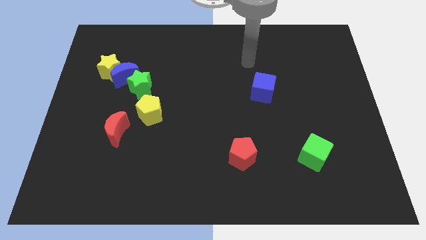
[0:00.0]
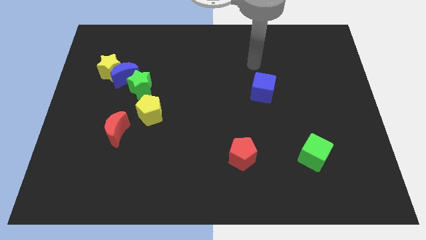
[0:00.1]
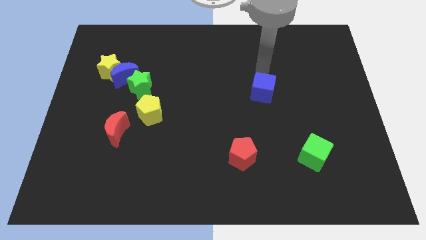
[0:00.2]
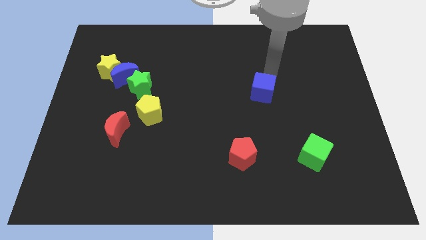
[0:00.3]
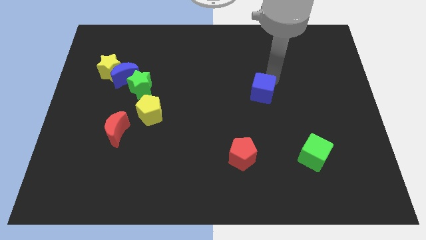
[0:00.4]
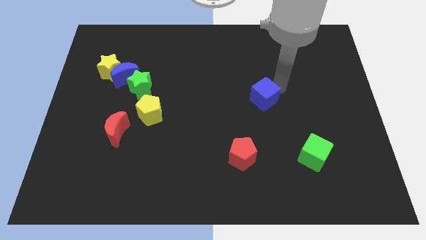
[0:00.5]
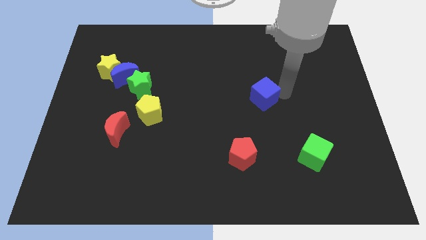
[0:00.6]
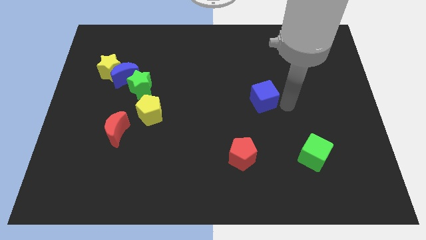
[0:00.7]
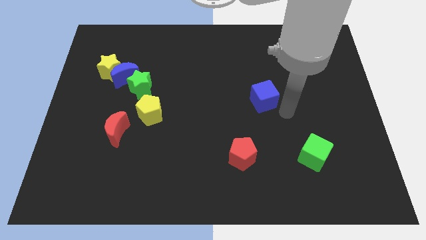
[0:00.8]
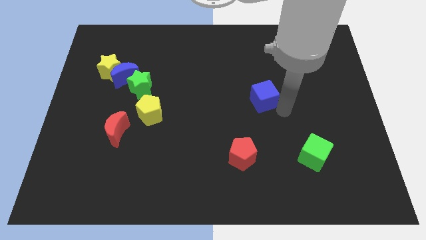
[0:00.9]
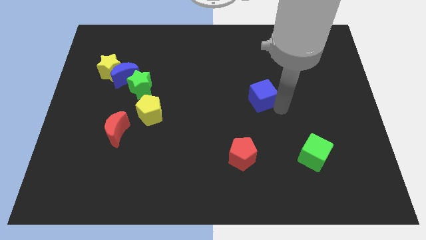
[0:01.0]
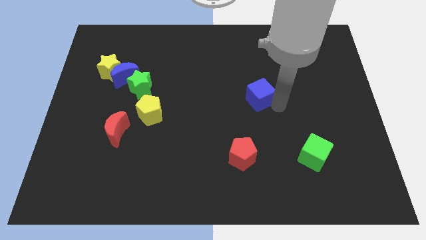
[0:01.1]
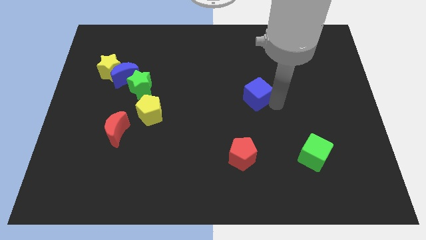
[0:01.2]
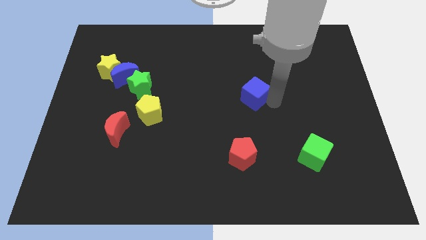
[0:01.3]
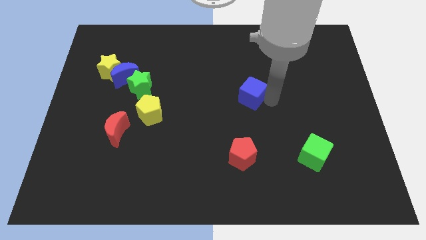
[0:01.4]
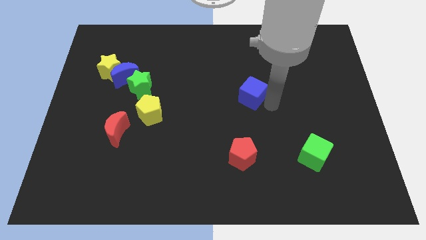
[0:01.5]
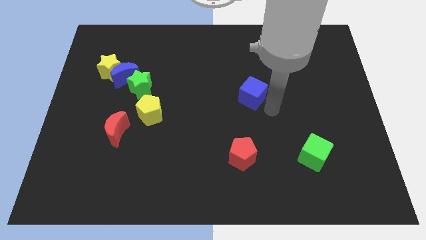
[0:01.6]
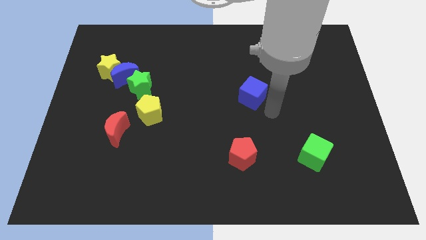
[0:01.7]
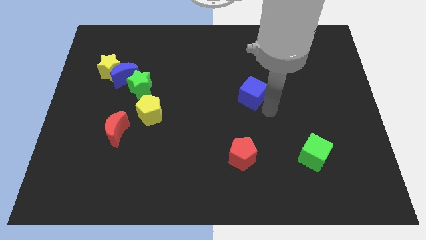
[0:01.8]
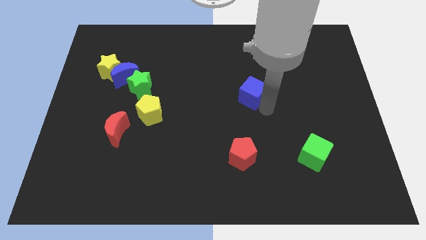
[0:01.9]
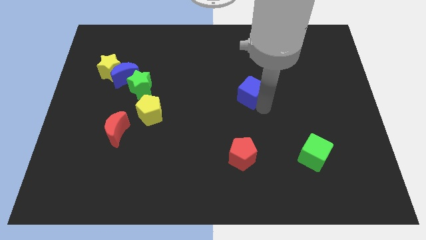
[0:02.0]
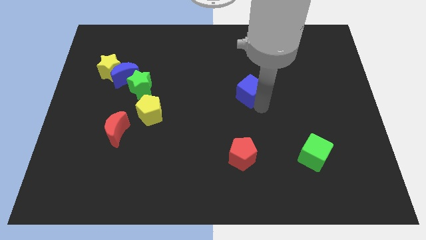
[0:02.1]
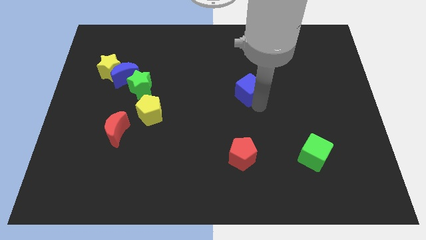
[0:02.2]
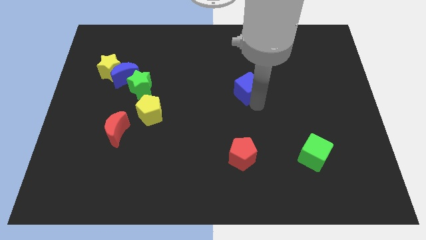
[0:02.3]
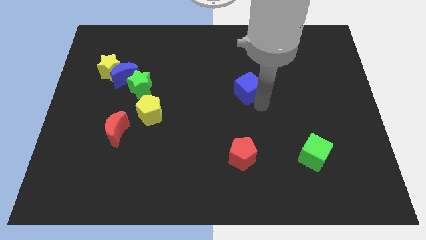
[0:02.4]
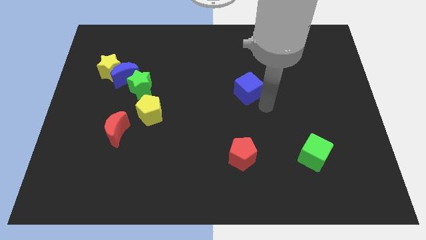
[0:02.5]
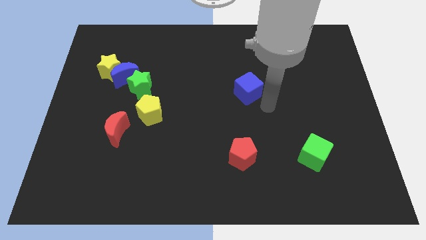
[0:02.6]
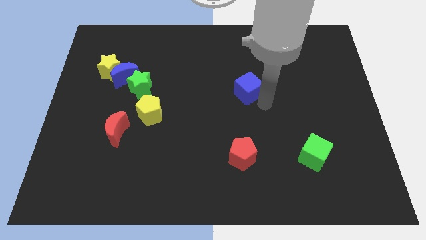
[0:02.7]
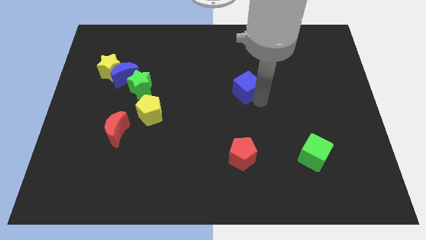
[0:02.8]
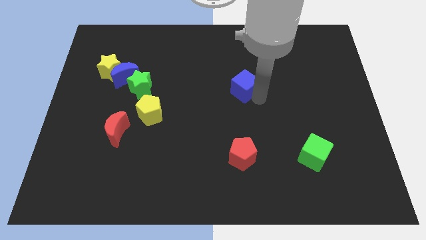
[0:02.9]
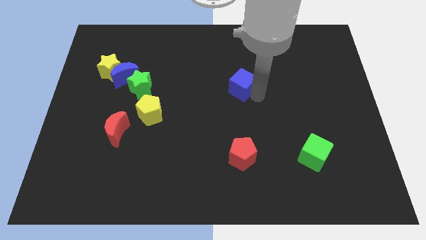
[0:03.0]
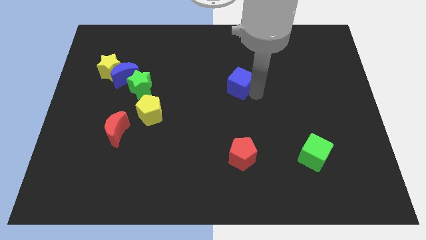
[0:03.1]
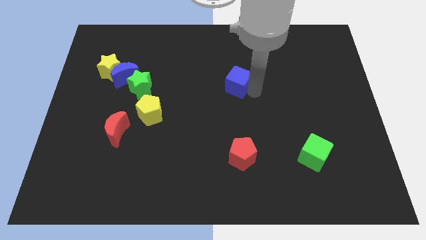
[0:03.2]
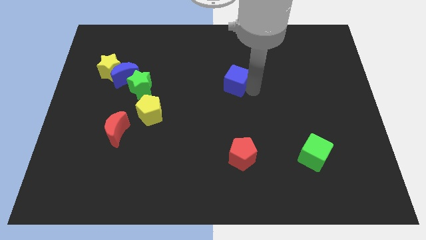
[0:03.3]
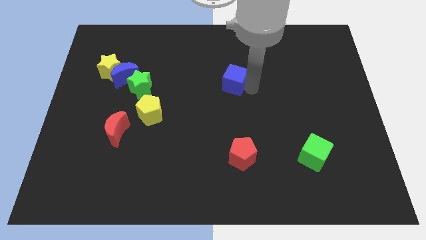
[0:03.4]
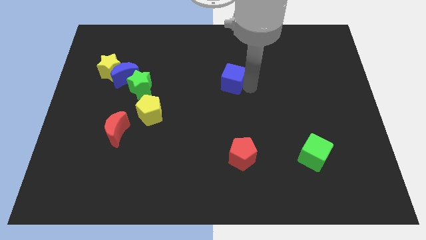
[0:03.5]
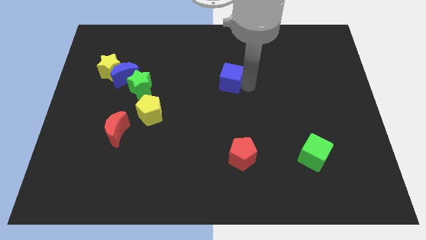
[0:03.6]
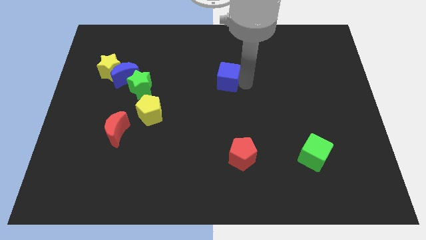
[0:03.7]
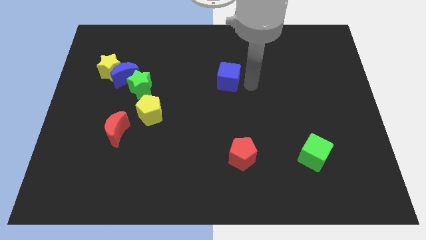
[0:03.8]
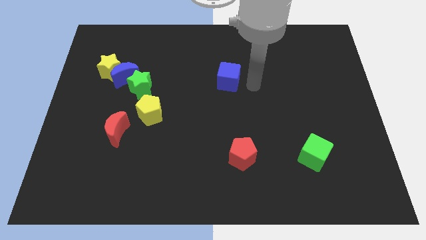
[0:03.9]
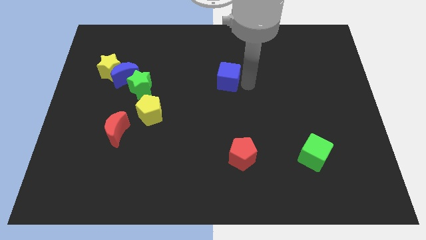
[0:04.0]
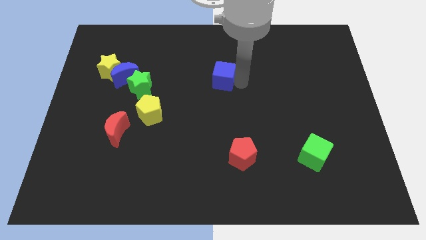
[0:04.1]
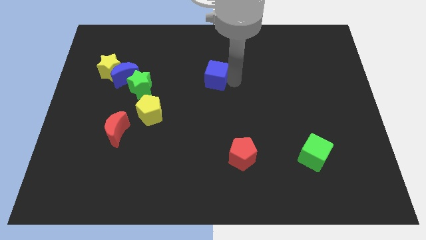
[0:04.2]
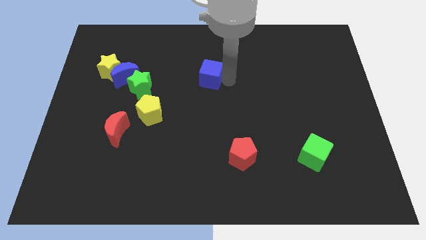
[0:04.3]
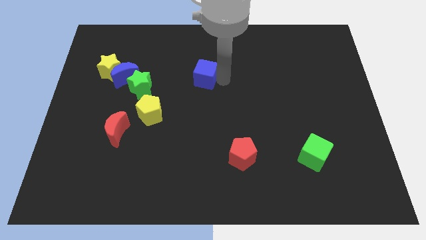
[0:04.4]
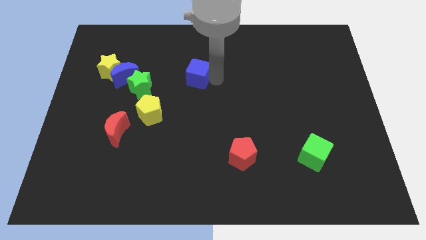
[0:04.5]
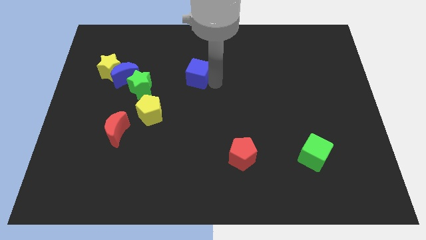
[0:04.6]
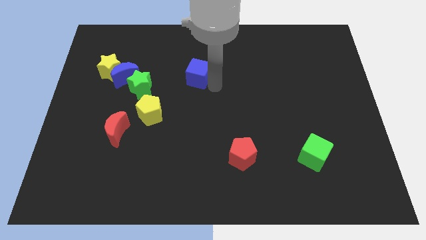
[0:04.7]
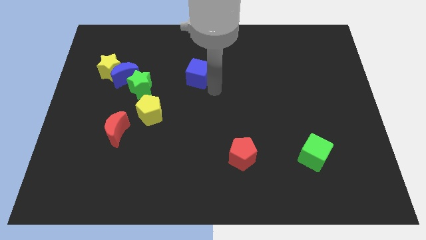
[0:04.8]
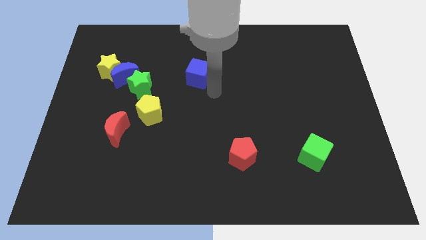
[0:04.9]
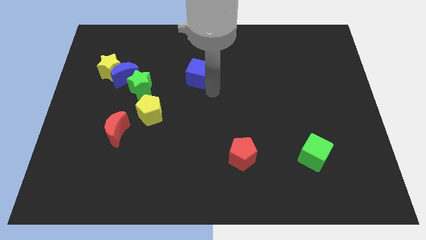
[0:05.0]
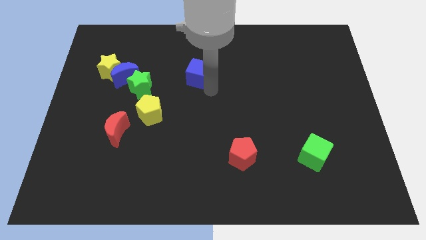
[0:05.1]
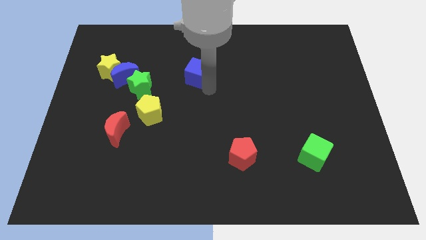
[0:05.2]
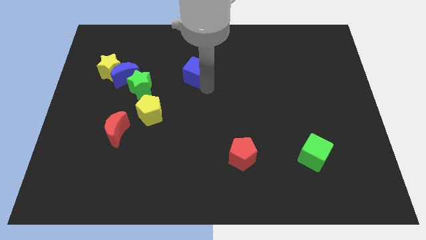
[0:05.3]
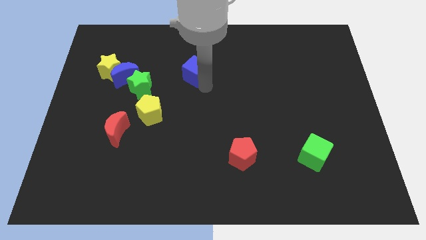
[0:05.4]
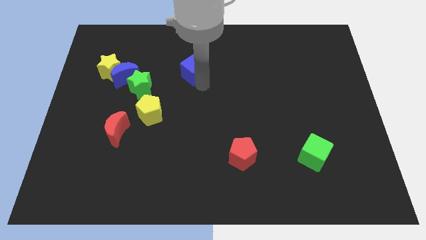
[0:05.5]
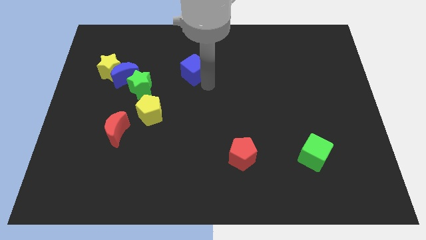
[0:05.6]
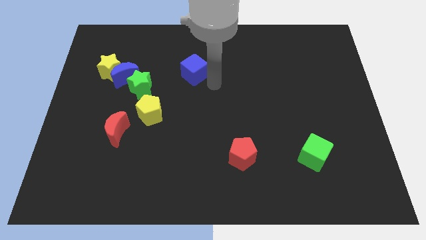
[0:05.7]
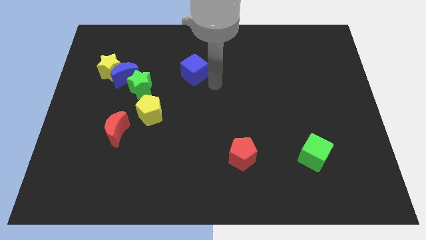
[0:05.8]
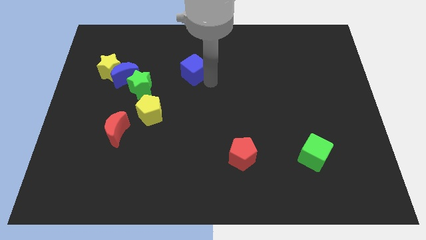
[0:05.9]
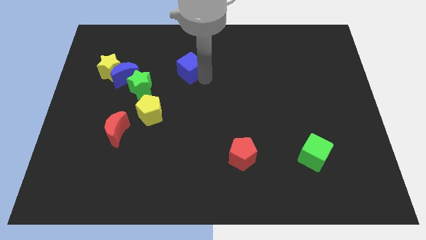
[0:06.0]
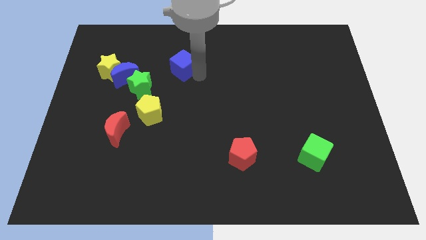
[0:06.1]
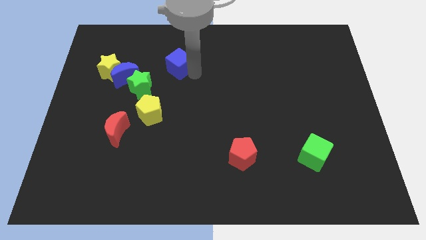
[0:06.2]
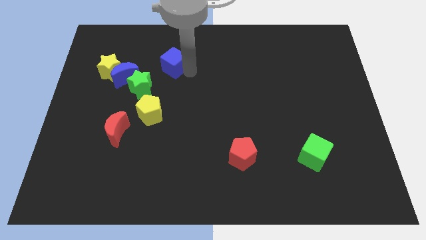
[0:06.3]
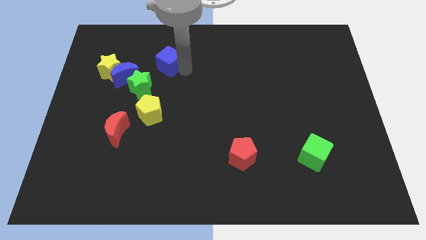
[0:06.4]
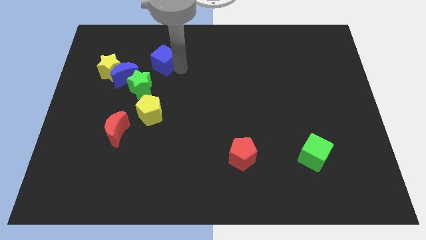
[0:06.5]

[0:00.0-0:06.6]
slide the blue cube to the top of the green star
